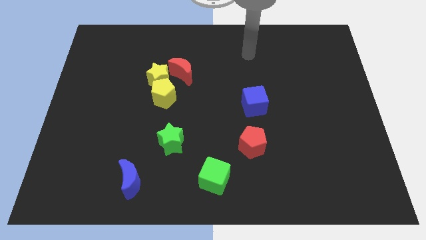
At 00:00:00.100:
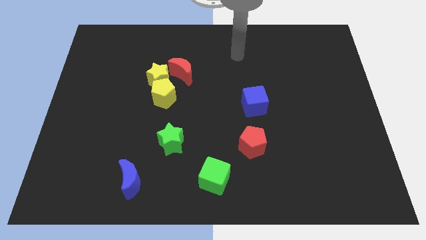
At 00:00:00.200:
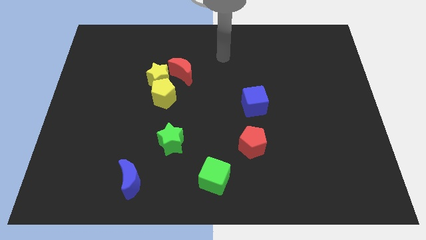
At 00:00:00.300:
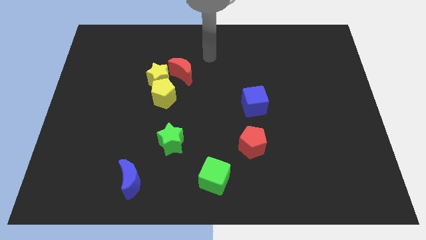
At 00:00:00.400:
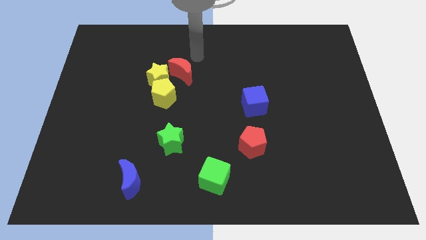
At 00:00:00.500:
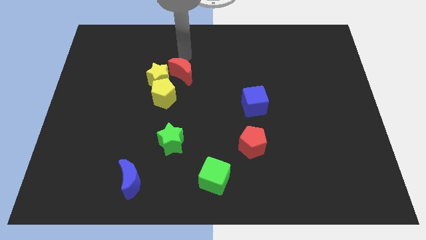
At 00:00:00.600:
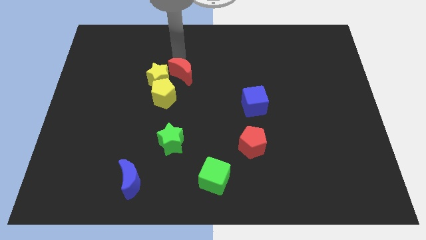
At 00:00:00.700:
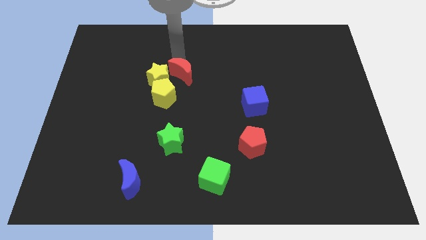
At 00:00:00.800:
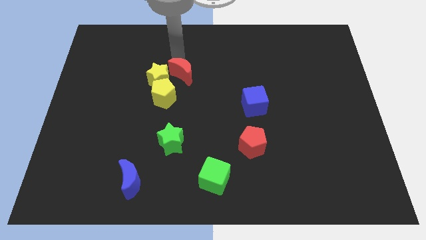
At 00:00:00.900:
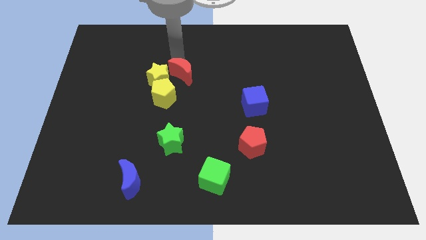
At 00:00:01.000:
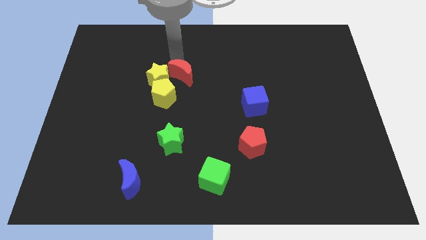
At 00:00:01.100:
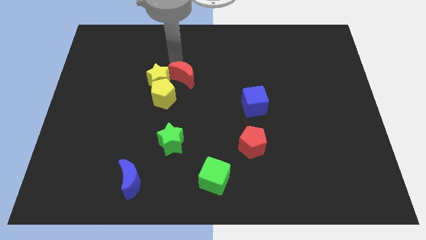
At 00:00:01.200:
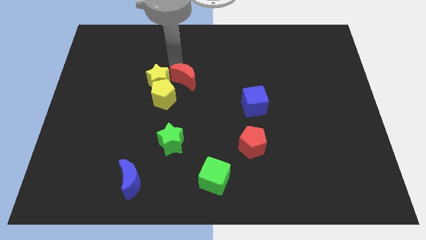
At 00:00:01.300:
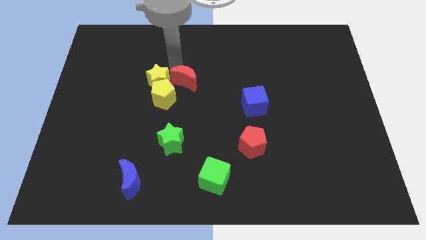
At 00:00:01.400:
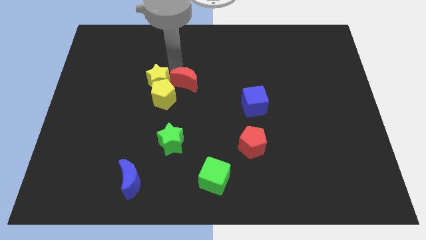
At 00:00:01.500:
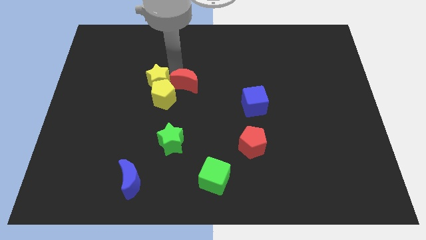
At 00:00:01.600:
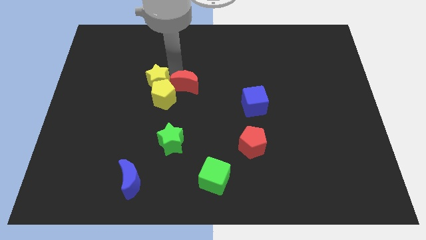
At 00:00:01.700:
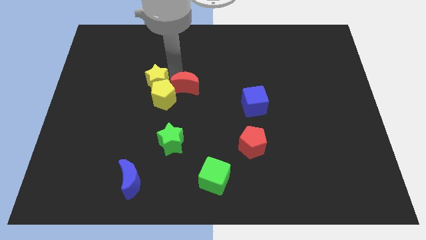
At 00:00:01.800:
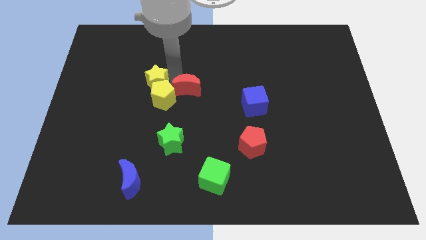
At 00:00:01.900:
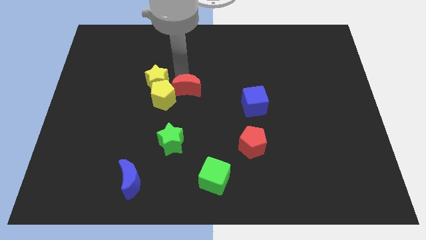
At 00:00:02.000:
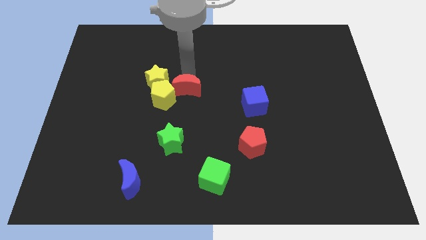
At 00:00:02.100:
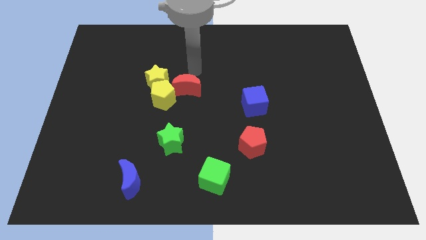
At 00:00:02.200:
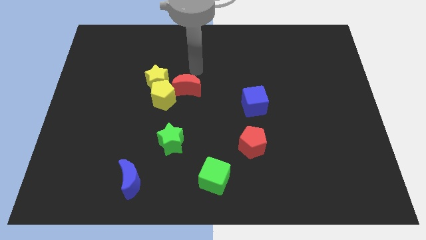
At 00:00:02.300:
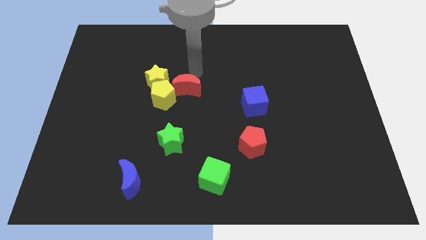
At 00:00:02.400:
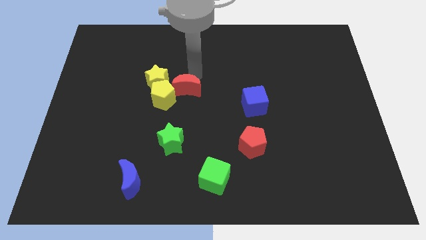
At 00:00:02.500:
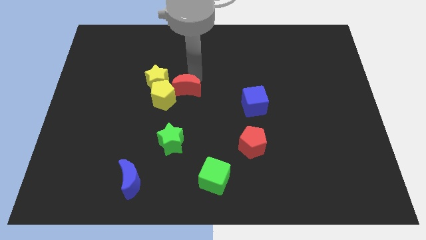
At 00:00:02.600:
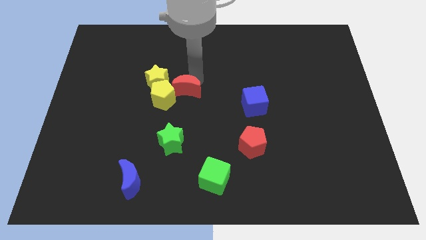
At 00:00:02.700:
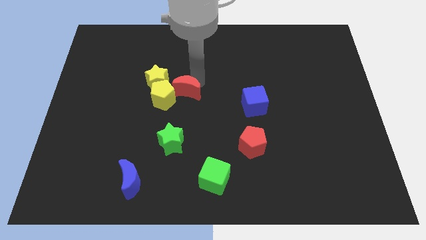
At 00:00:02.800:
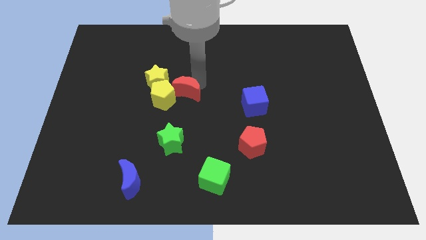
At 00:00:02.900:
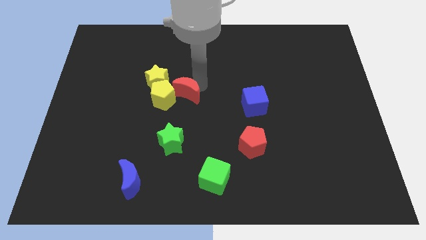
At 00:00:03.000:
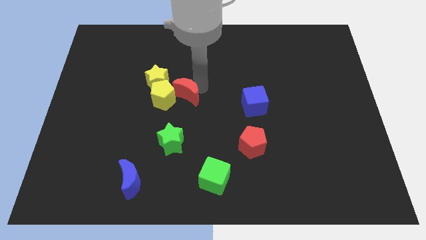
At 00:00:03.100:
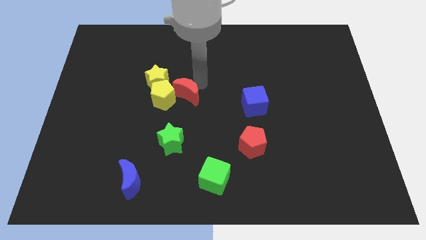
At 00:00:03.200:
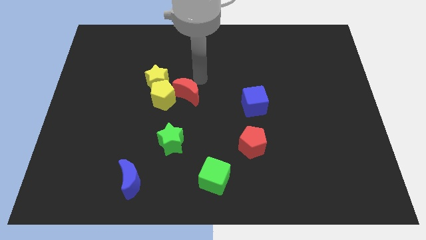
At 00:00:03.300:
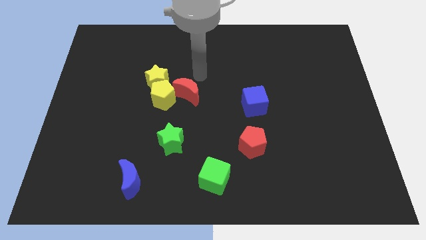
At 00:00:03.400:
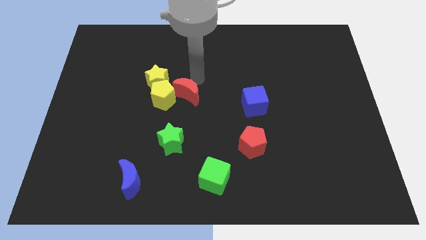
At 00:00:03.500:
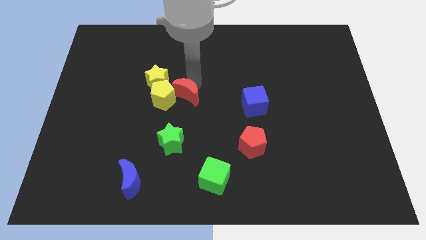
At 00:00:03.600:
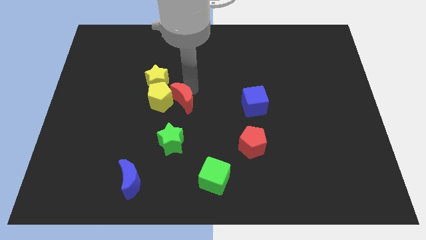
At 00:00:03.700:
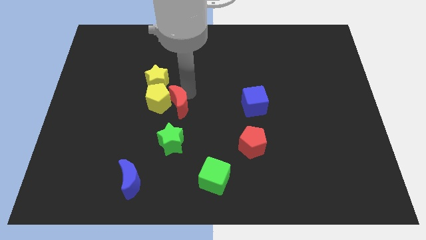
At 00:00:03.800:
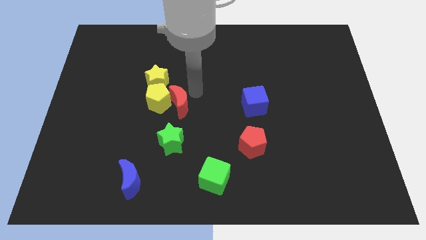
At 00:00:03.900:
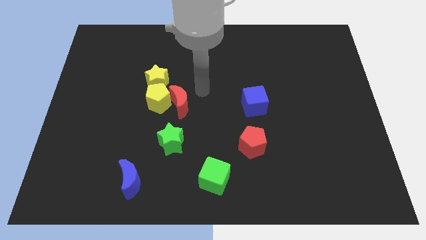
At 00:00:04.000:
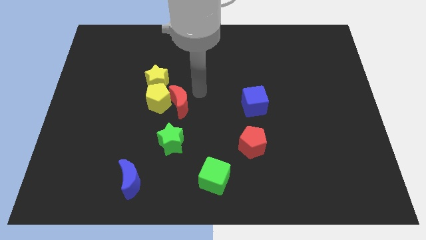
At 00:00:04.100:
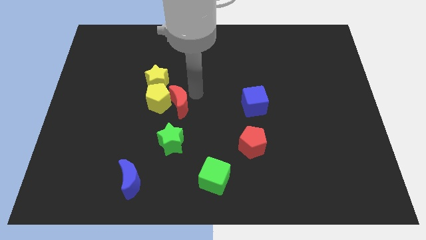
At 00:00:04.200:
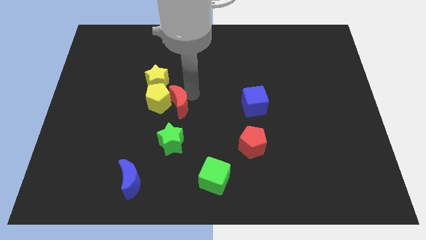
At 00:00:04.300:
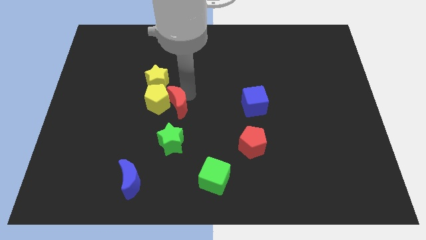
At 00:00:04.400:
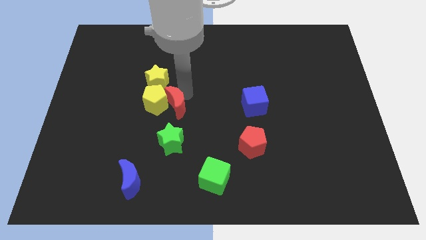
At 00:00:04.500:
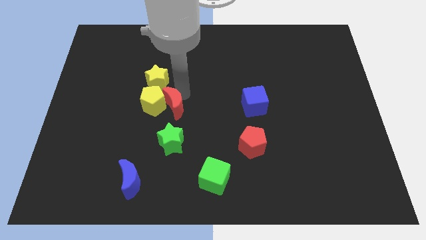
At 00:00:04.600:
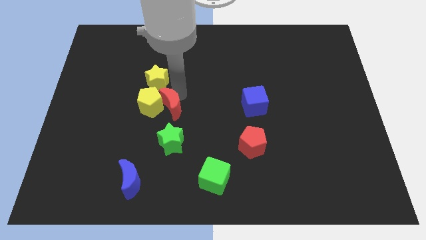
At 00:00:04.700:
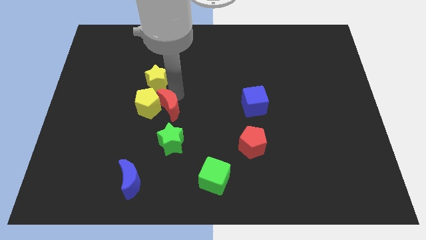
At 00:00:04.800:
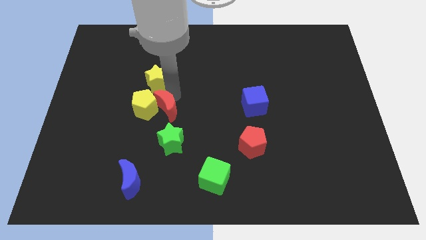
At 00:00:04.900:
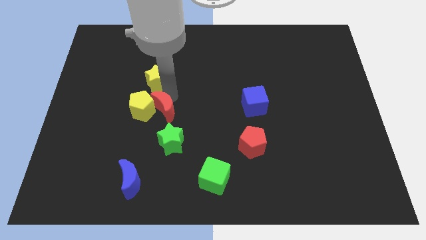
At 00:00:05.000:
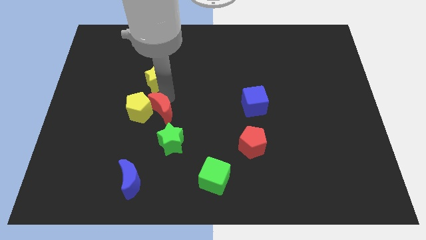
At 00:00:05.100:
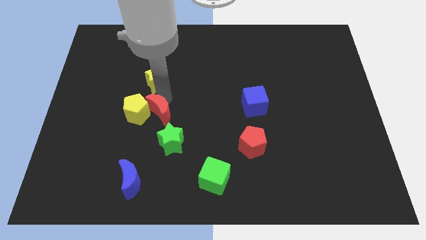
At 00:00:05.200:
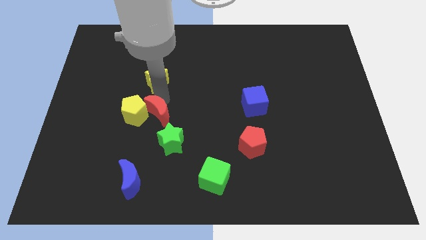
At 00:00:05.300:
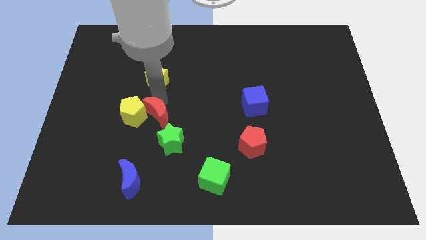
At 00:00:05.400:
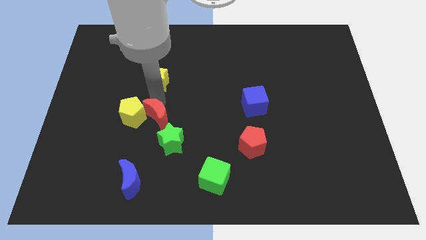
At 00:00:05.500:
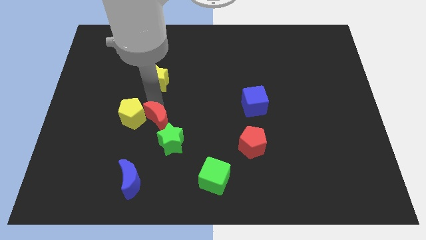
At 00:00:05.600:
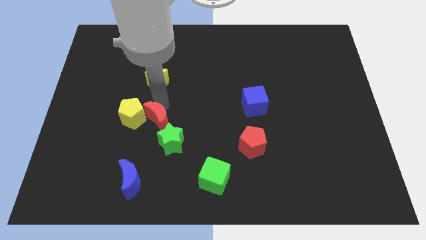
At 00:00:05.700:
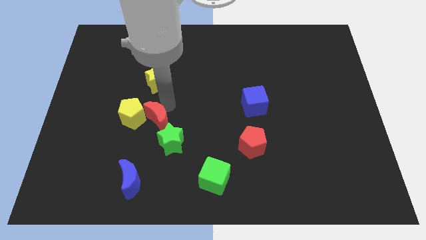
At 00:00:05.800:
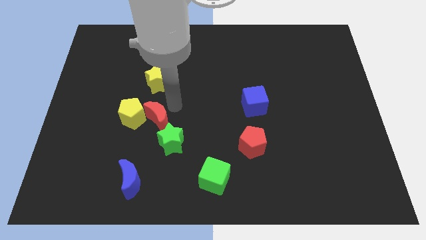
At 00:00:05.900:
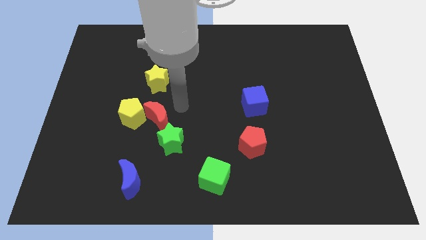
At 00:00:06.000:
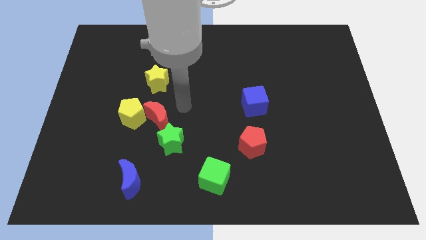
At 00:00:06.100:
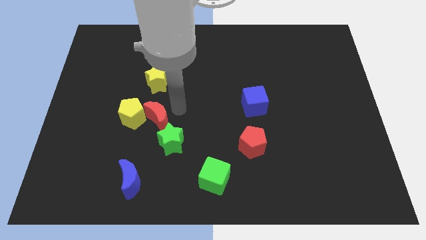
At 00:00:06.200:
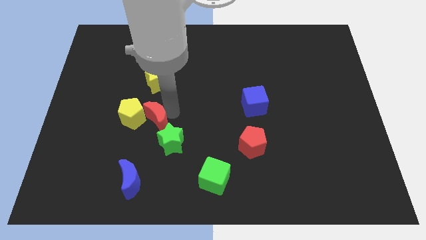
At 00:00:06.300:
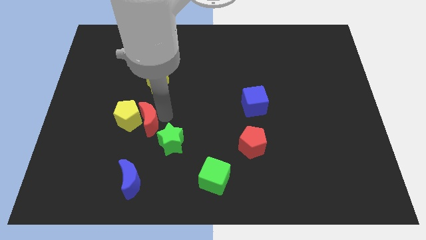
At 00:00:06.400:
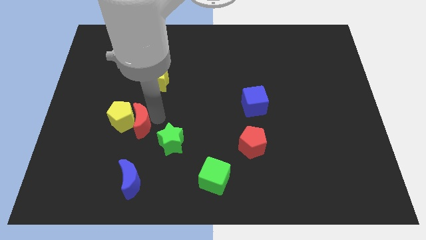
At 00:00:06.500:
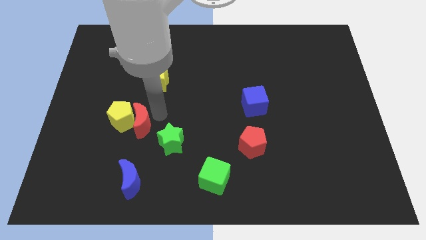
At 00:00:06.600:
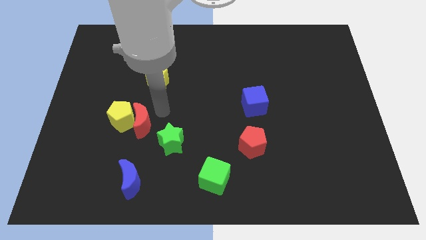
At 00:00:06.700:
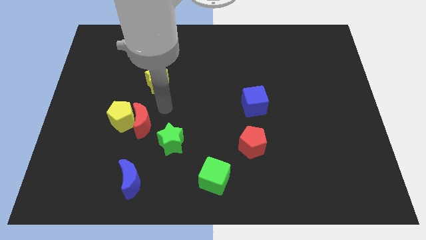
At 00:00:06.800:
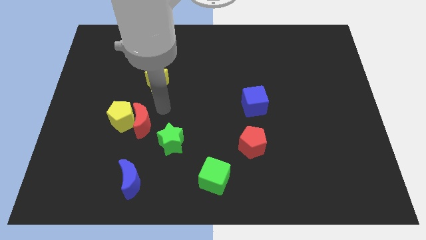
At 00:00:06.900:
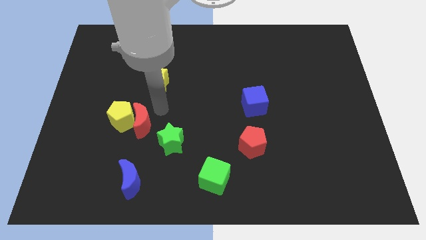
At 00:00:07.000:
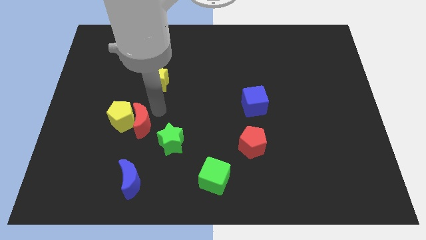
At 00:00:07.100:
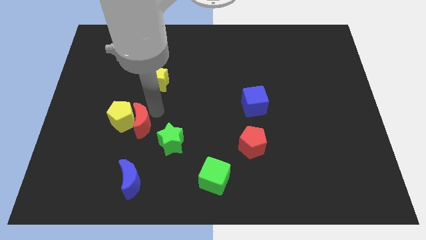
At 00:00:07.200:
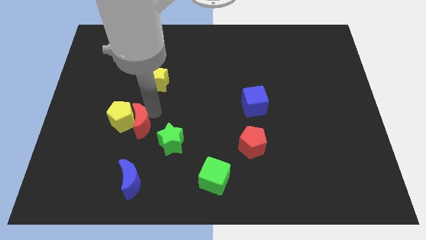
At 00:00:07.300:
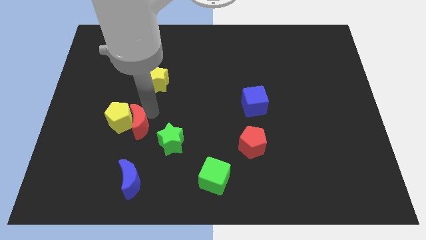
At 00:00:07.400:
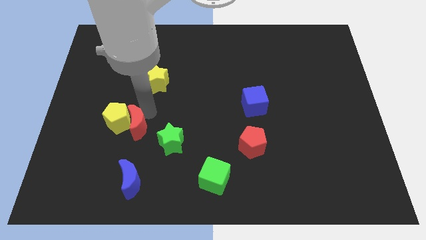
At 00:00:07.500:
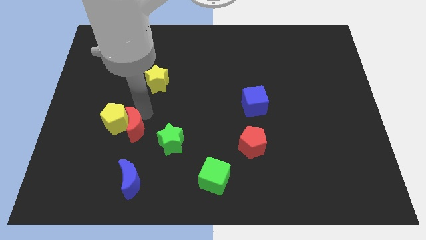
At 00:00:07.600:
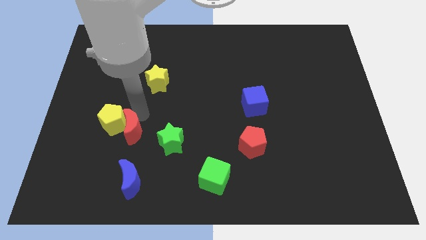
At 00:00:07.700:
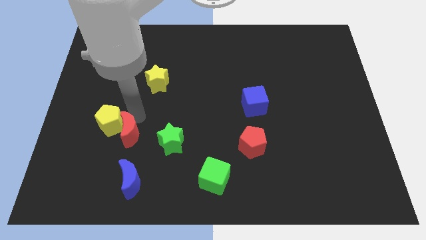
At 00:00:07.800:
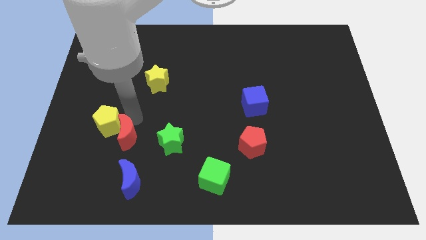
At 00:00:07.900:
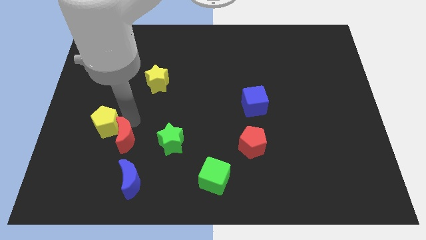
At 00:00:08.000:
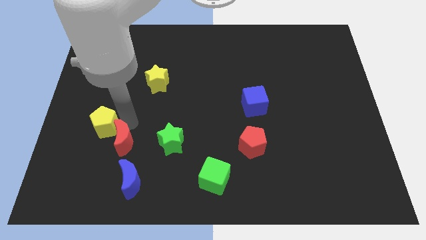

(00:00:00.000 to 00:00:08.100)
put the red moon diagonally up and to the left of the blue moon
